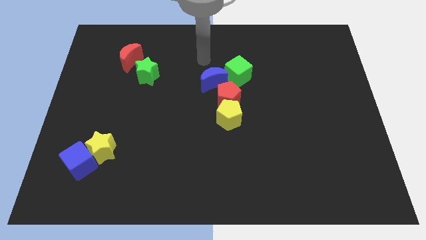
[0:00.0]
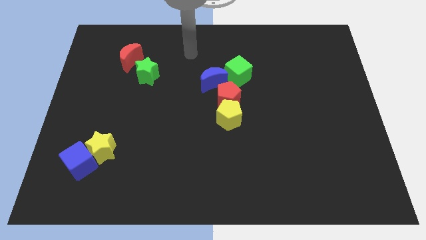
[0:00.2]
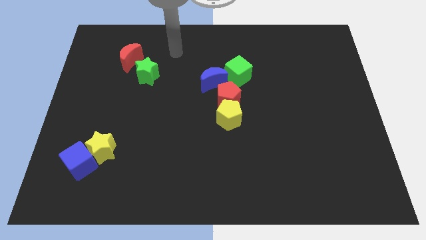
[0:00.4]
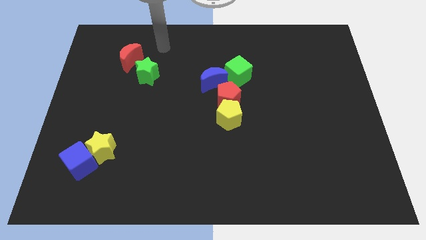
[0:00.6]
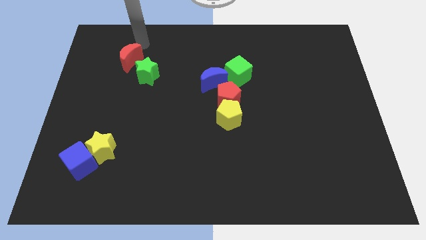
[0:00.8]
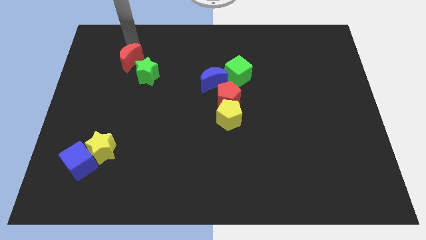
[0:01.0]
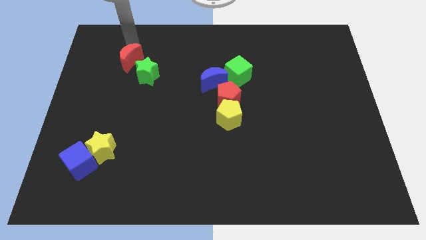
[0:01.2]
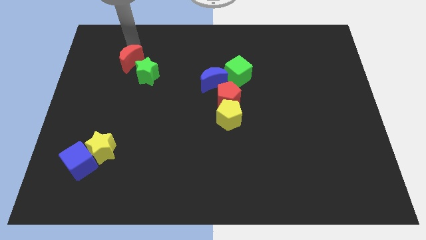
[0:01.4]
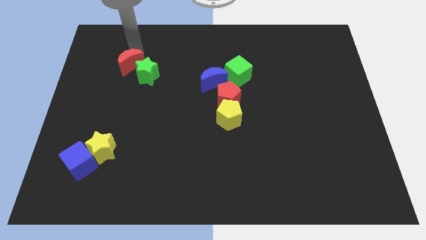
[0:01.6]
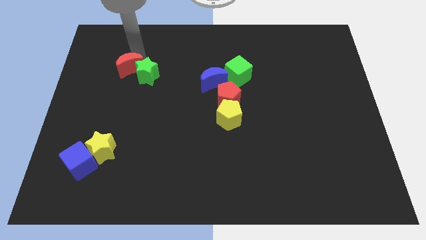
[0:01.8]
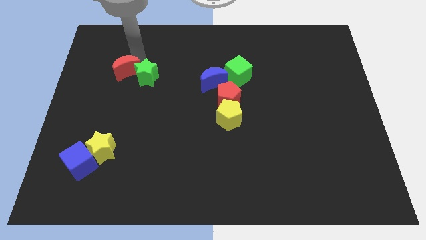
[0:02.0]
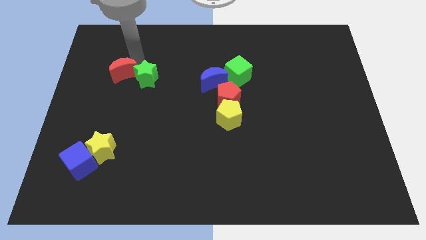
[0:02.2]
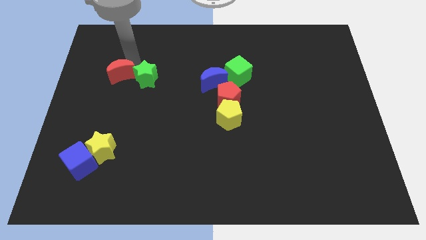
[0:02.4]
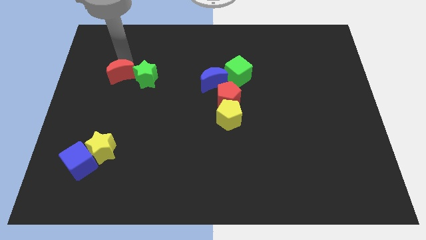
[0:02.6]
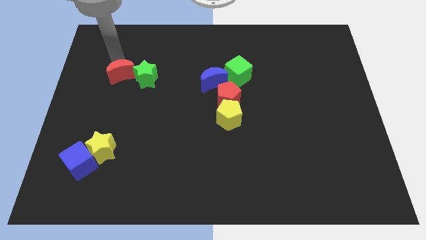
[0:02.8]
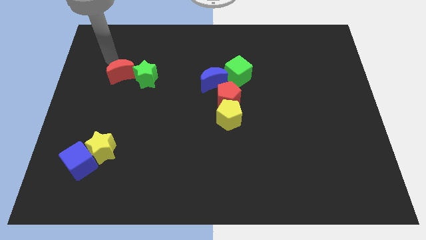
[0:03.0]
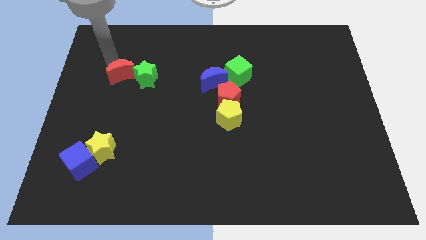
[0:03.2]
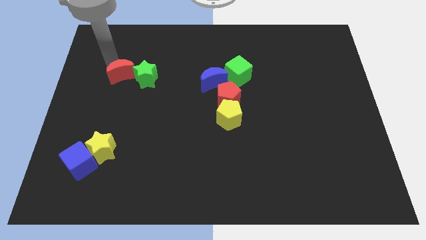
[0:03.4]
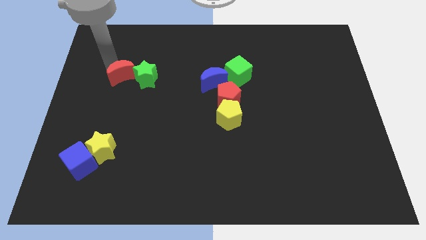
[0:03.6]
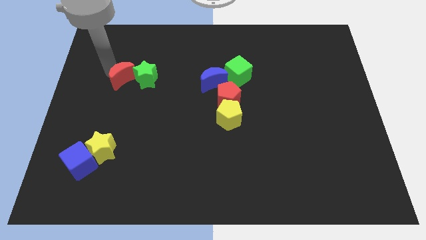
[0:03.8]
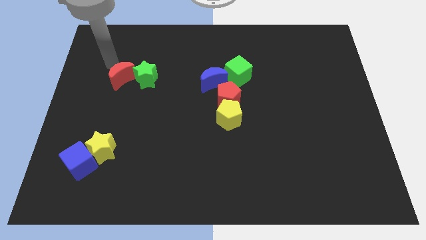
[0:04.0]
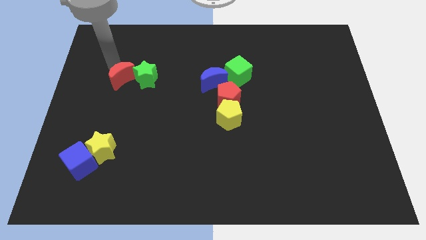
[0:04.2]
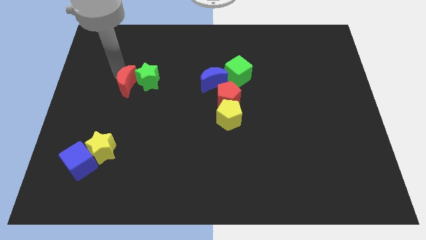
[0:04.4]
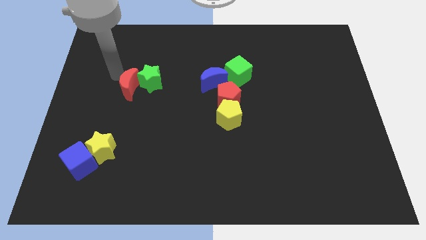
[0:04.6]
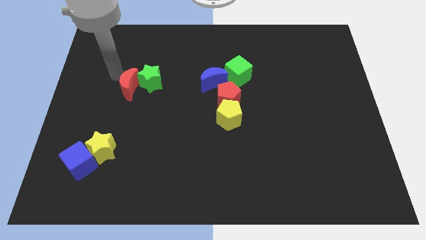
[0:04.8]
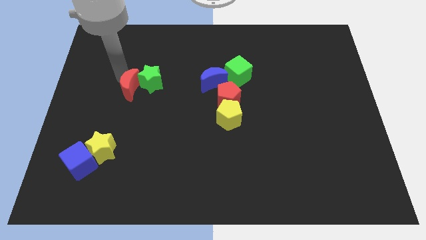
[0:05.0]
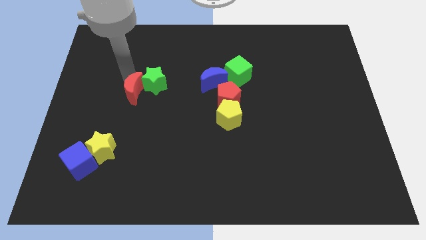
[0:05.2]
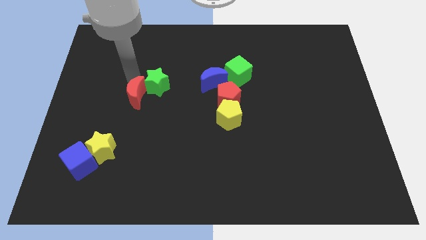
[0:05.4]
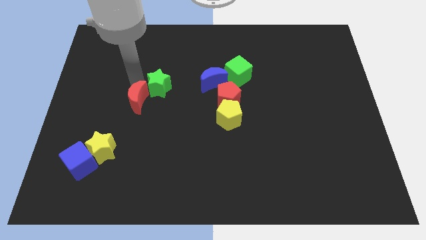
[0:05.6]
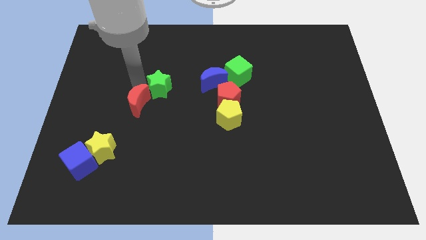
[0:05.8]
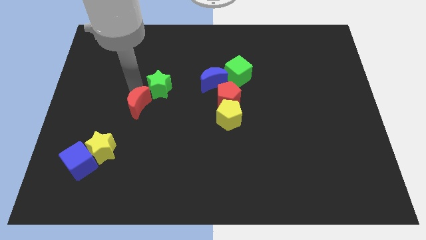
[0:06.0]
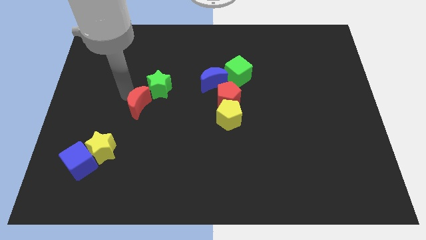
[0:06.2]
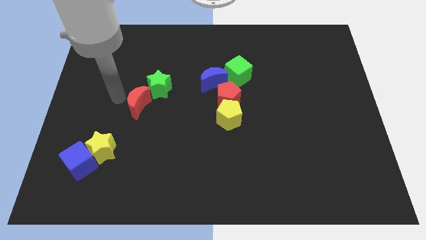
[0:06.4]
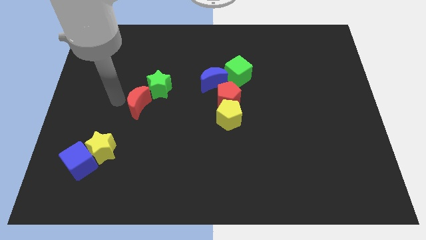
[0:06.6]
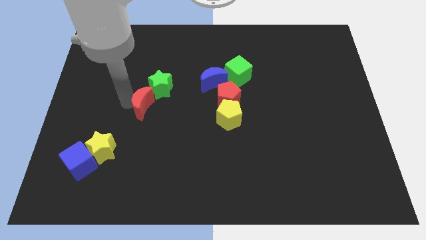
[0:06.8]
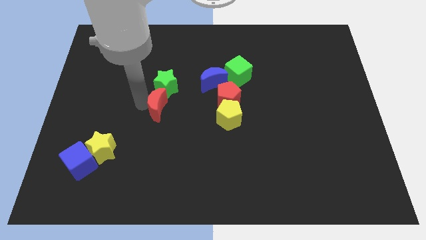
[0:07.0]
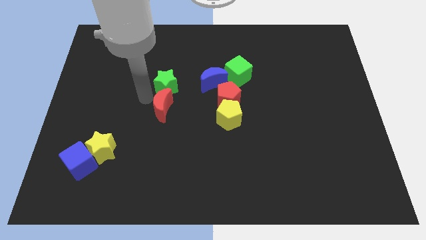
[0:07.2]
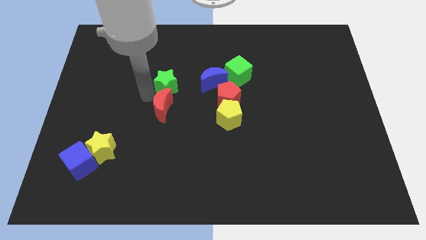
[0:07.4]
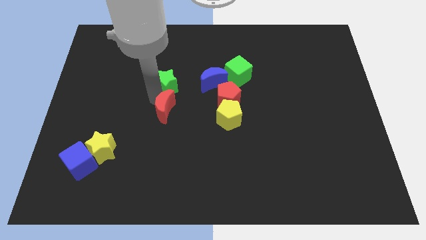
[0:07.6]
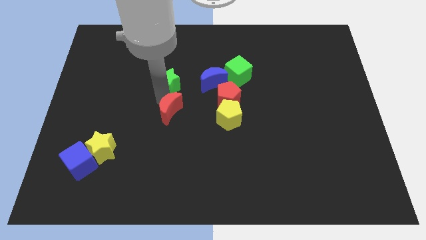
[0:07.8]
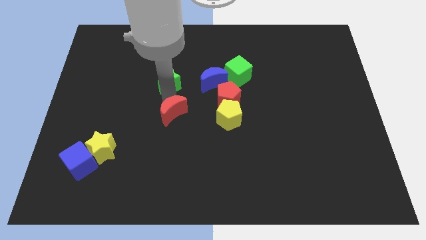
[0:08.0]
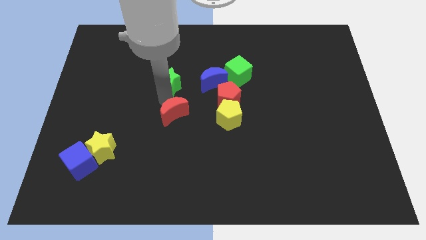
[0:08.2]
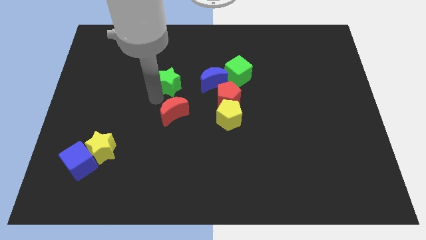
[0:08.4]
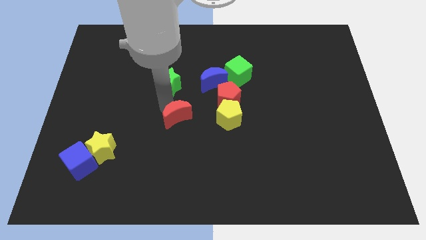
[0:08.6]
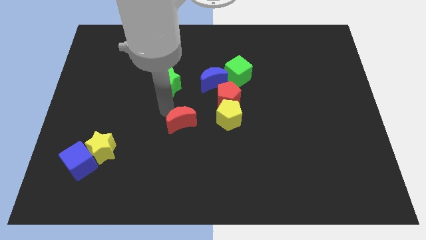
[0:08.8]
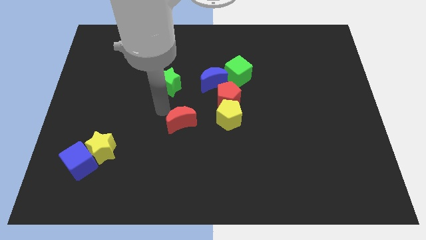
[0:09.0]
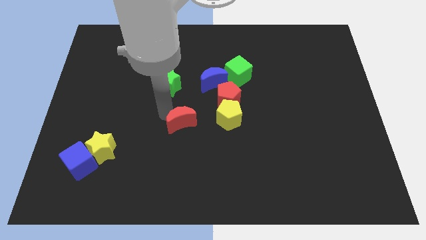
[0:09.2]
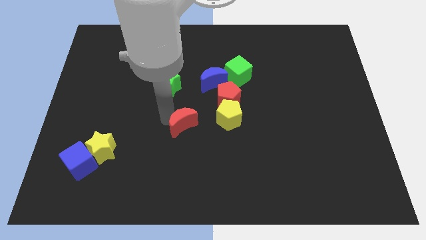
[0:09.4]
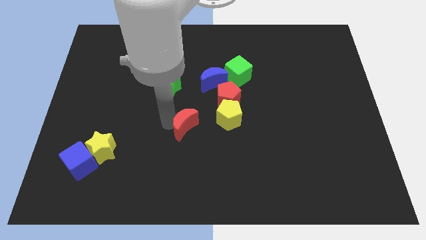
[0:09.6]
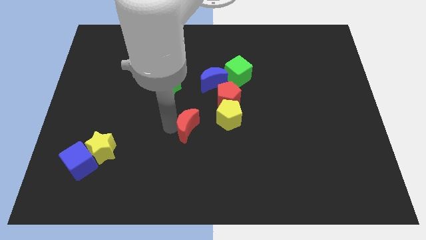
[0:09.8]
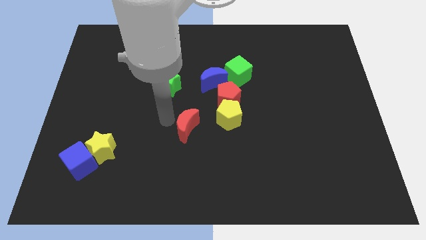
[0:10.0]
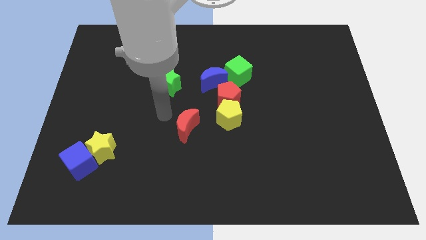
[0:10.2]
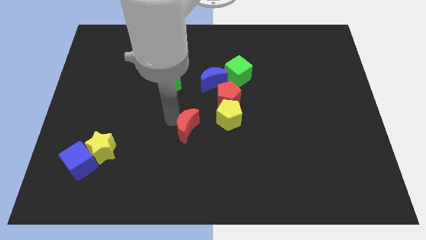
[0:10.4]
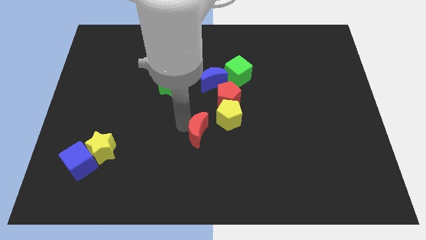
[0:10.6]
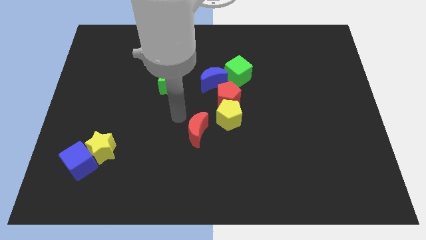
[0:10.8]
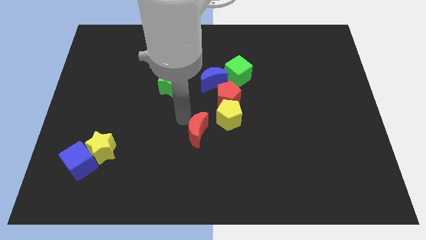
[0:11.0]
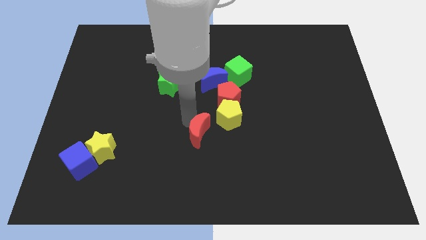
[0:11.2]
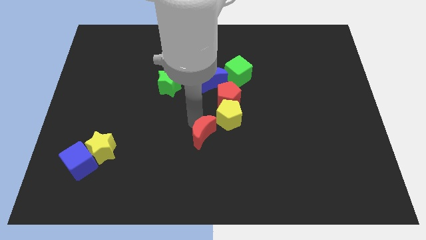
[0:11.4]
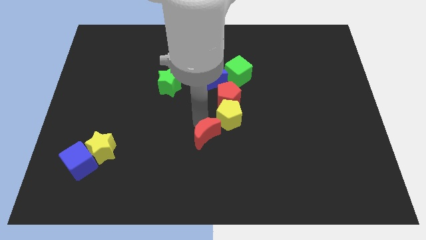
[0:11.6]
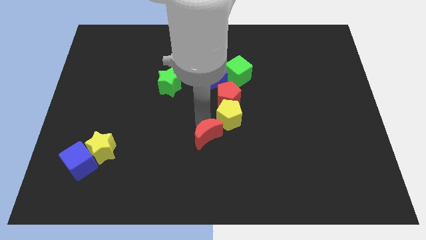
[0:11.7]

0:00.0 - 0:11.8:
slide the red moon below the yellow pentagon

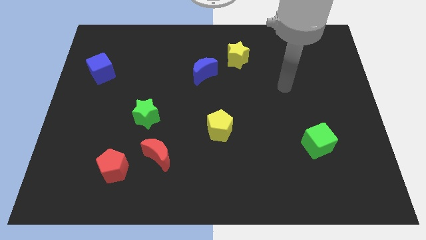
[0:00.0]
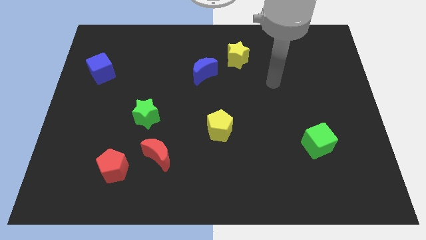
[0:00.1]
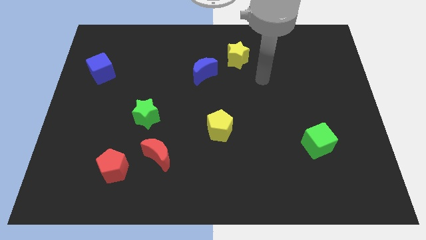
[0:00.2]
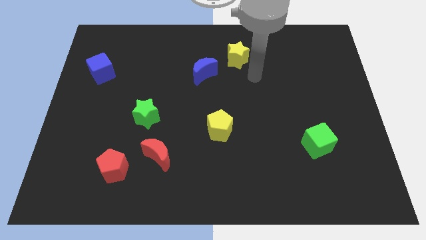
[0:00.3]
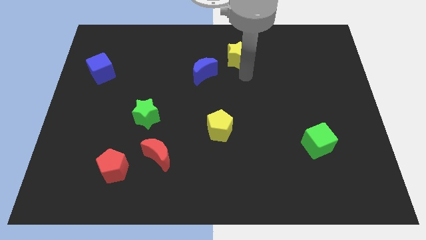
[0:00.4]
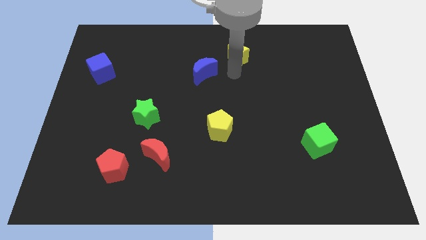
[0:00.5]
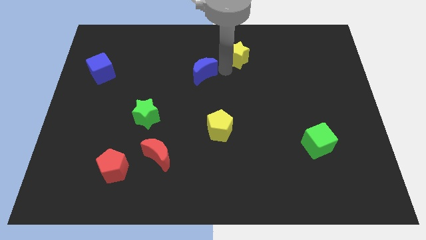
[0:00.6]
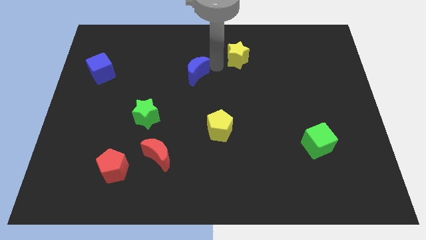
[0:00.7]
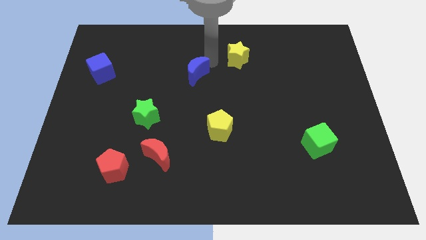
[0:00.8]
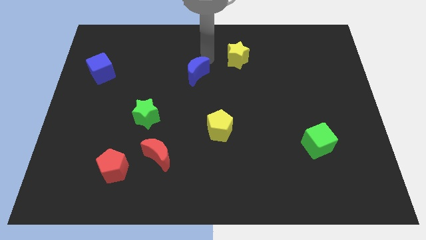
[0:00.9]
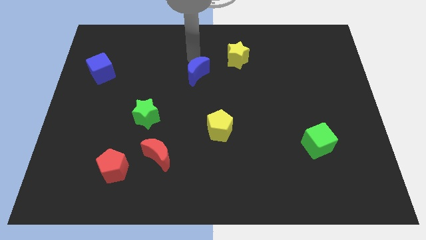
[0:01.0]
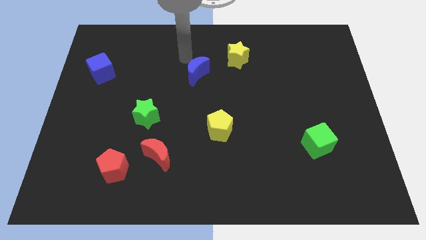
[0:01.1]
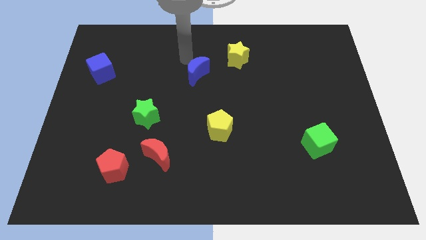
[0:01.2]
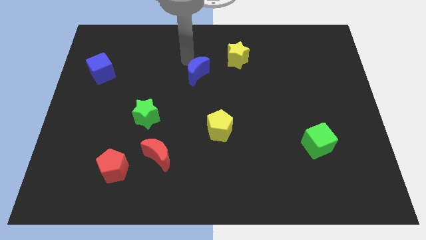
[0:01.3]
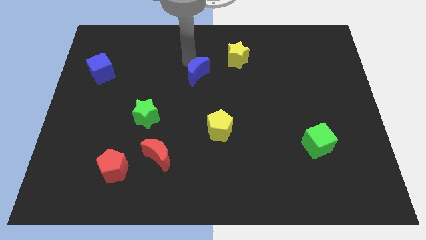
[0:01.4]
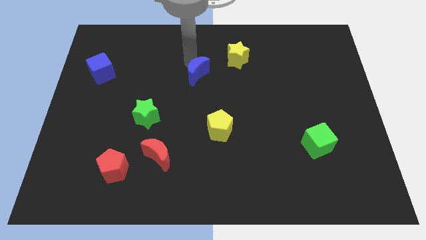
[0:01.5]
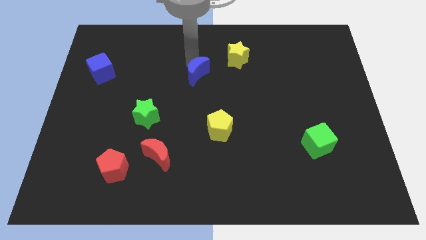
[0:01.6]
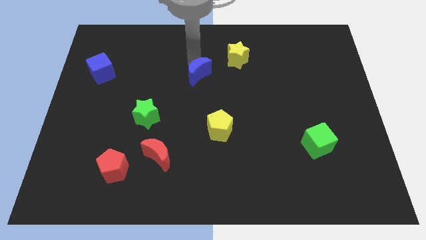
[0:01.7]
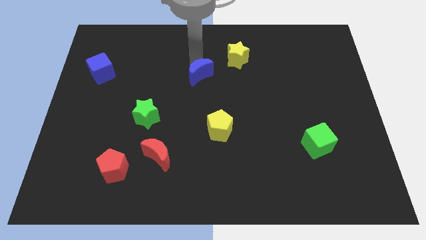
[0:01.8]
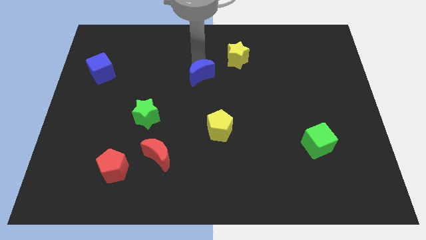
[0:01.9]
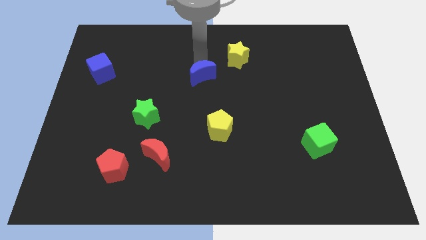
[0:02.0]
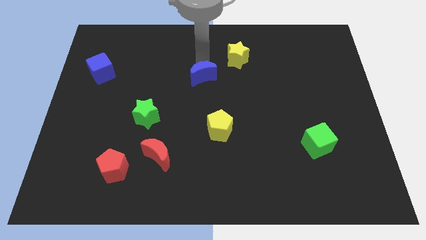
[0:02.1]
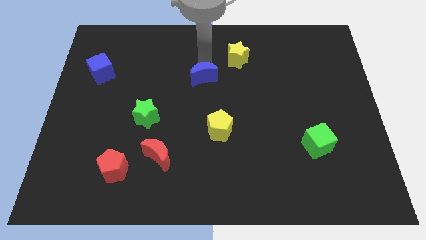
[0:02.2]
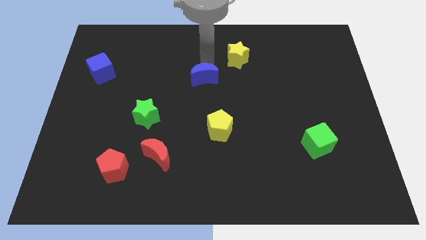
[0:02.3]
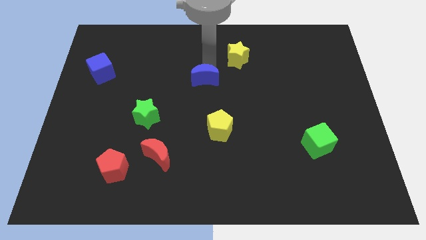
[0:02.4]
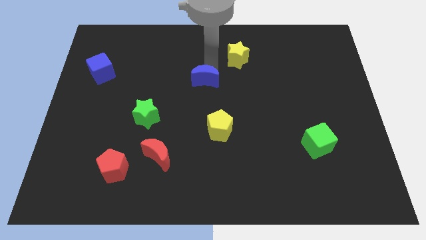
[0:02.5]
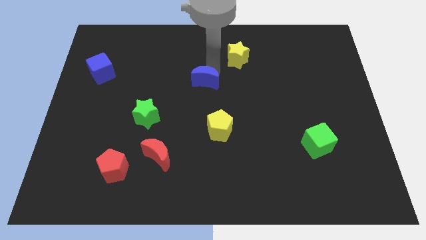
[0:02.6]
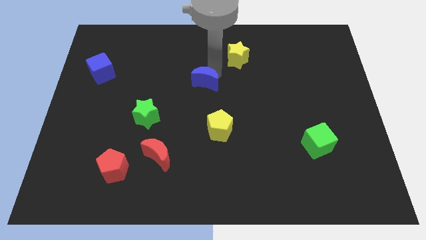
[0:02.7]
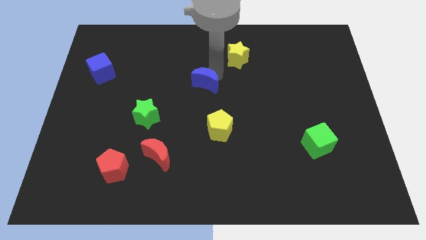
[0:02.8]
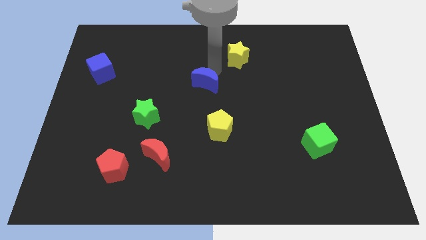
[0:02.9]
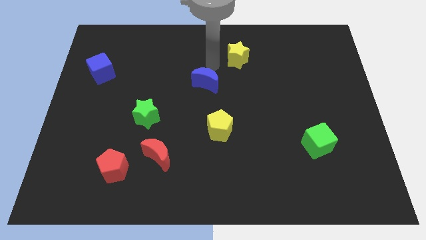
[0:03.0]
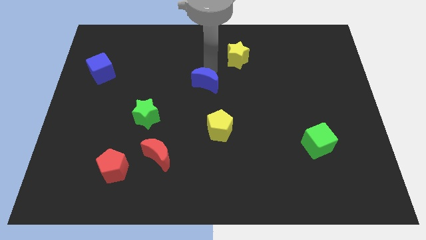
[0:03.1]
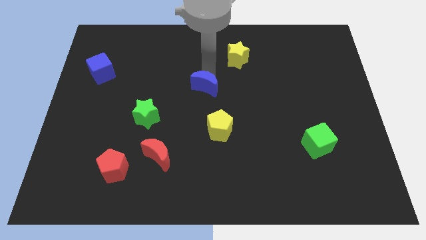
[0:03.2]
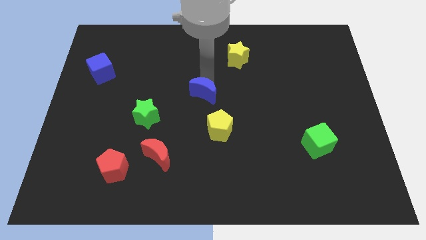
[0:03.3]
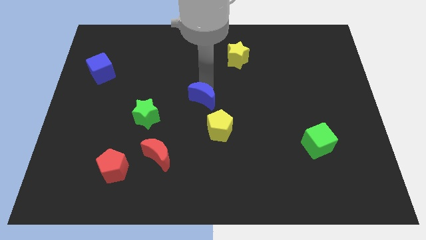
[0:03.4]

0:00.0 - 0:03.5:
move the blue moon to the top left of the yellow pentagon
